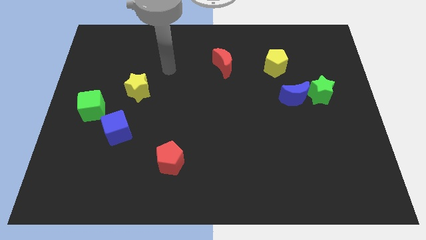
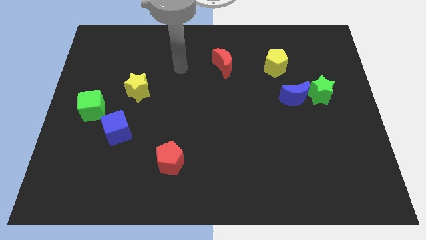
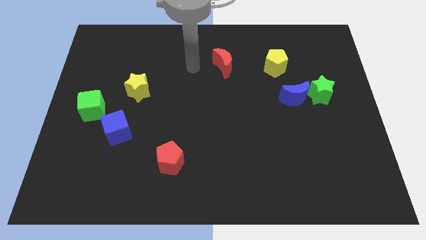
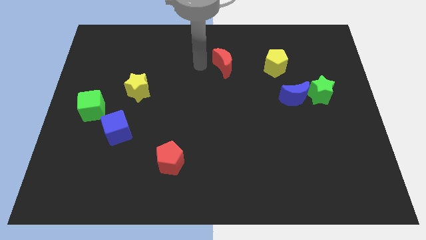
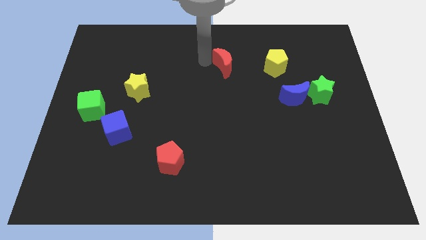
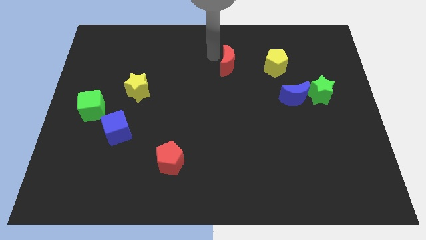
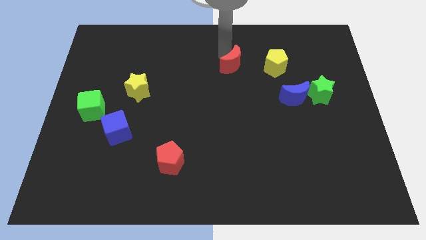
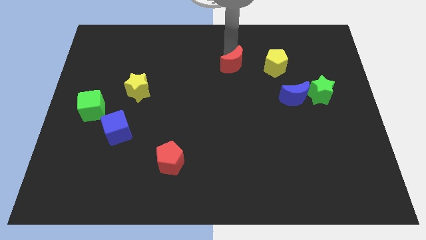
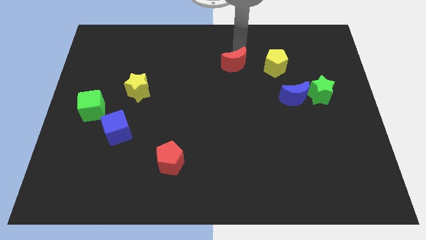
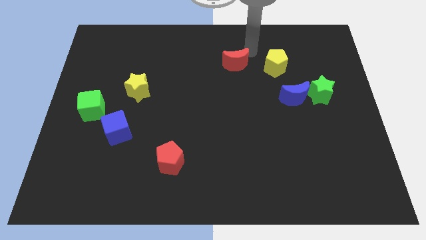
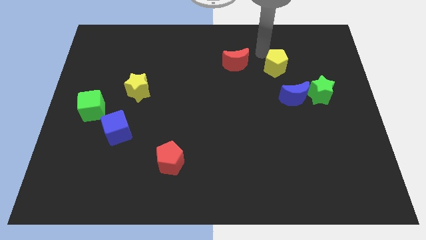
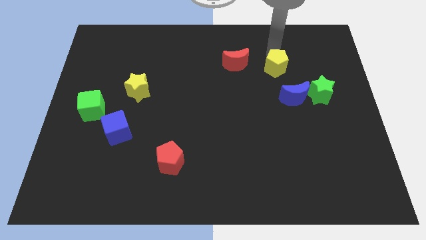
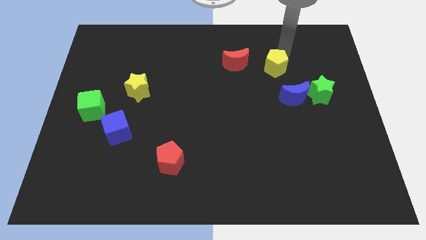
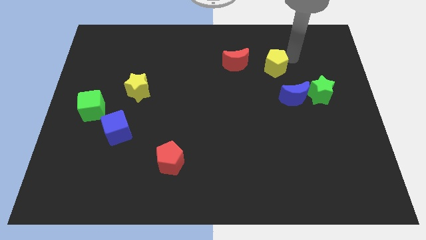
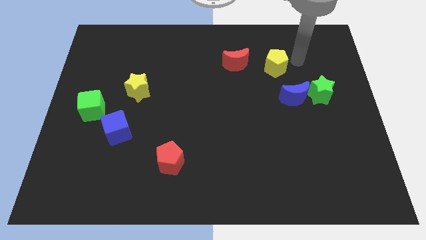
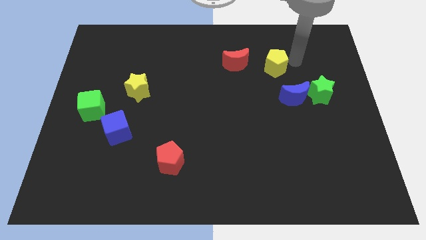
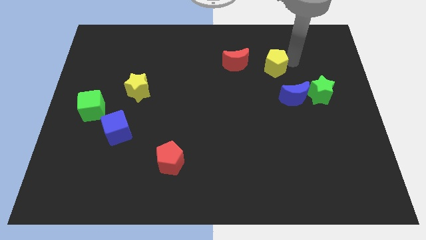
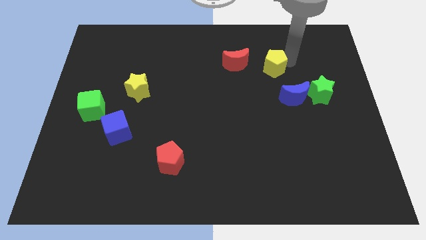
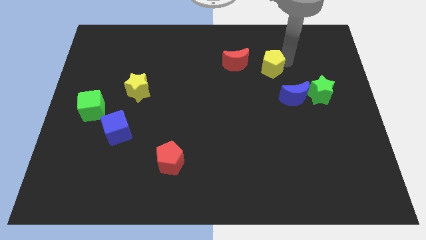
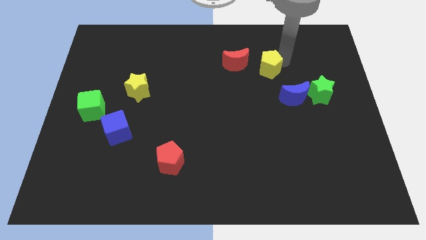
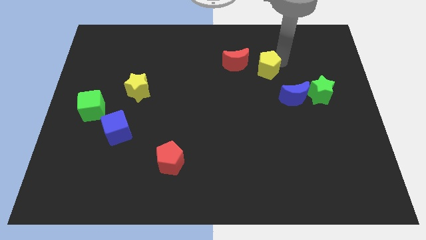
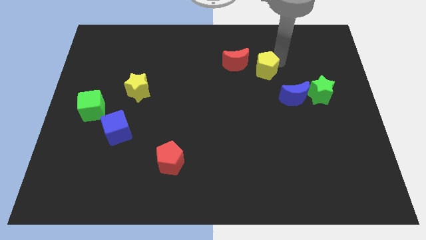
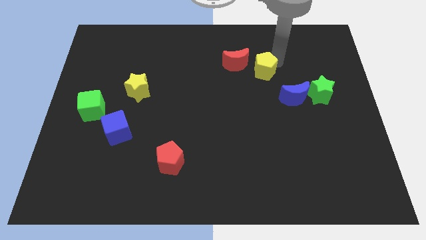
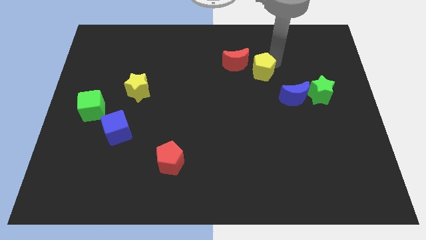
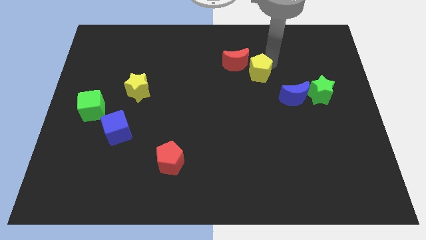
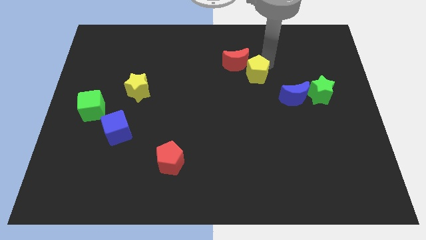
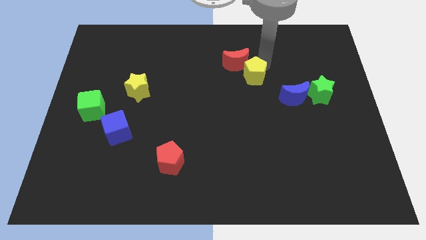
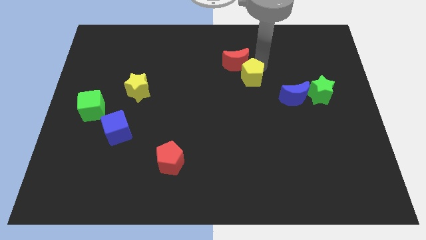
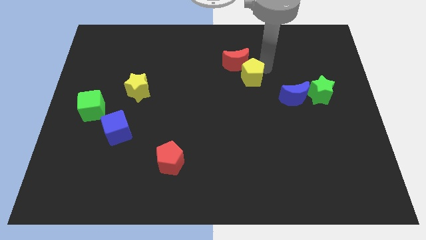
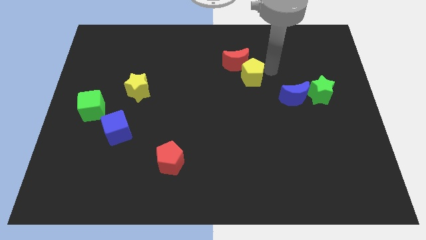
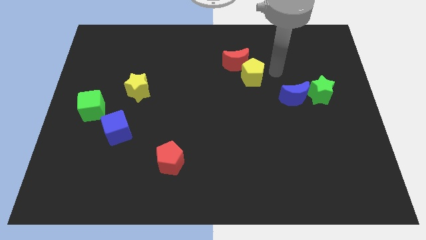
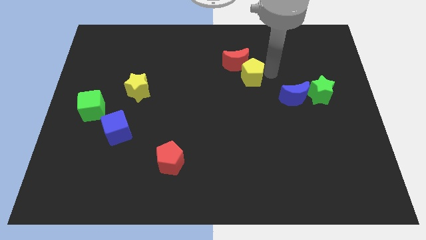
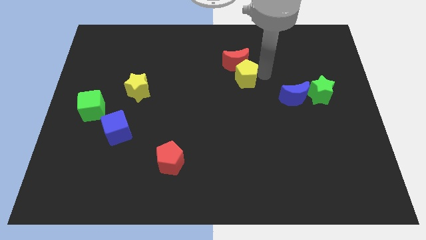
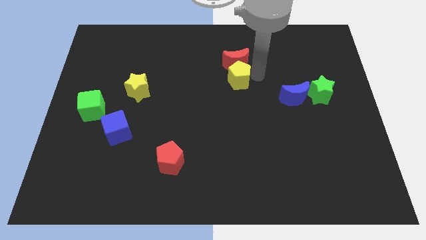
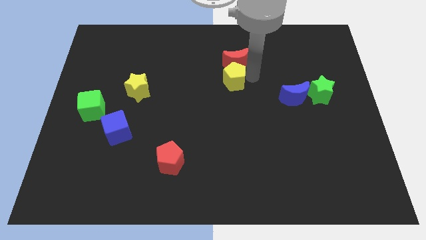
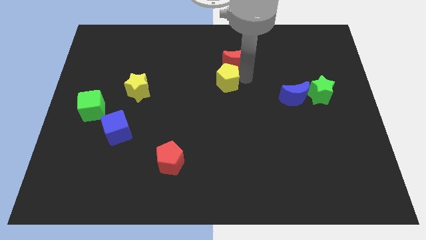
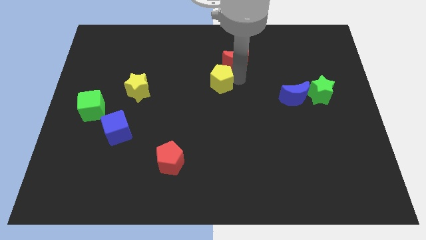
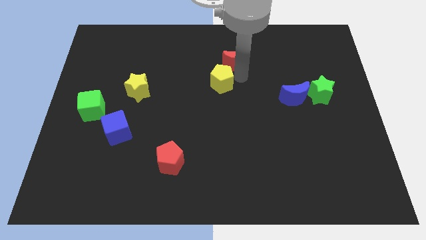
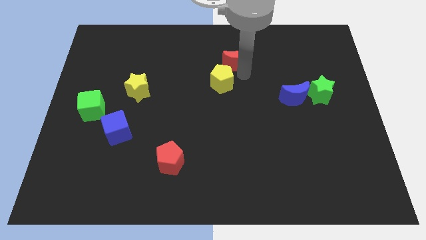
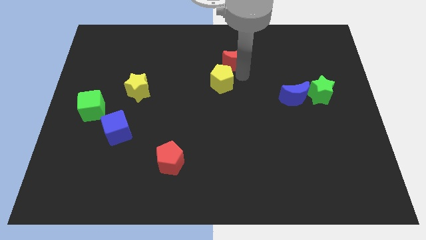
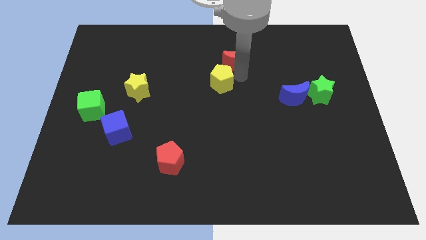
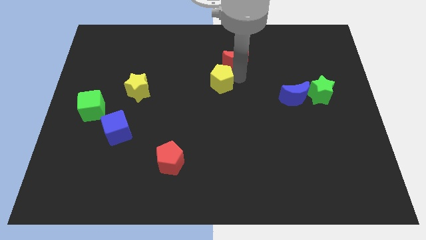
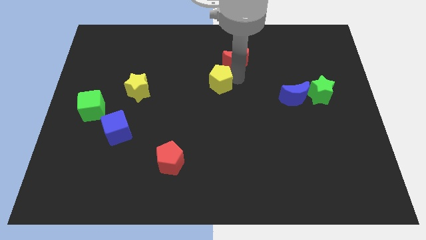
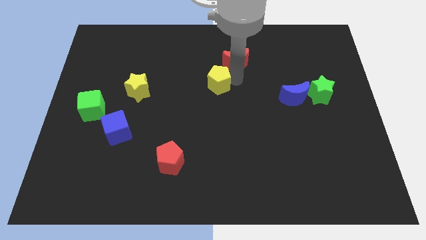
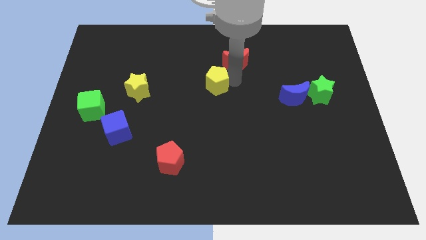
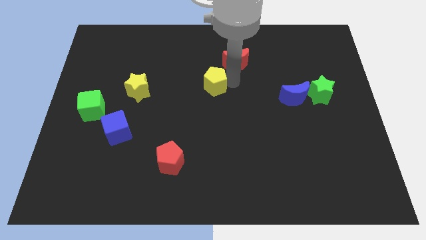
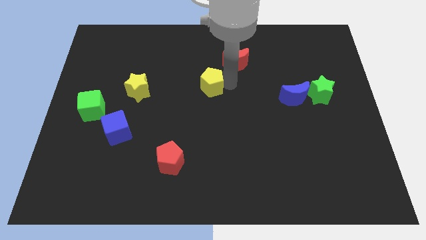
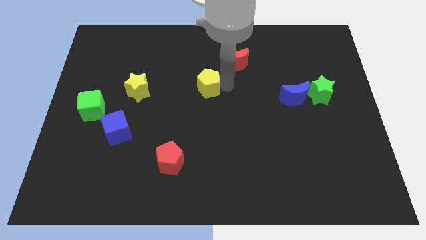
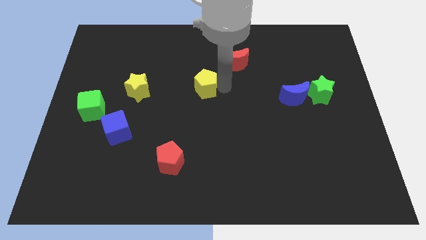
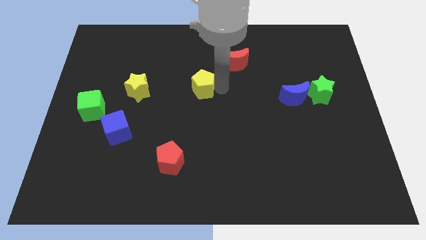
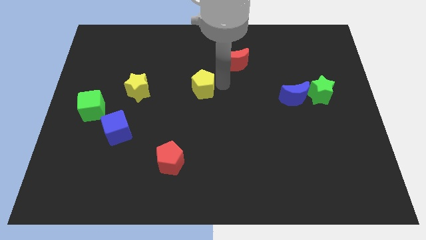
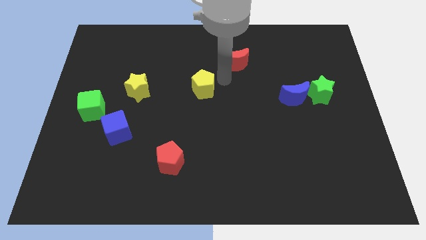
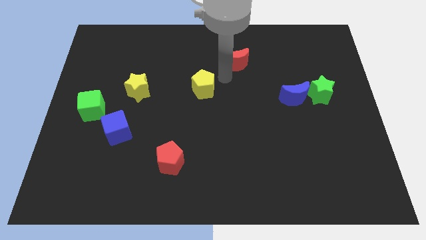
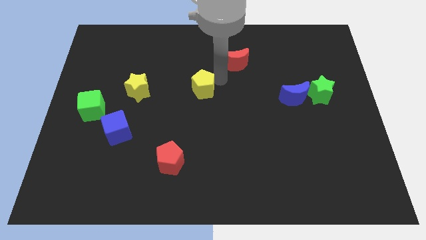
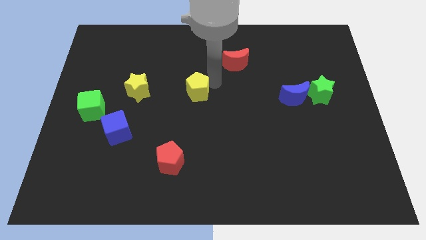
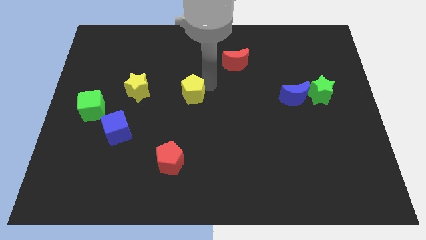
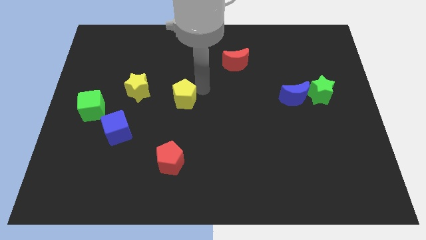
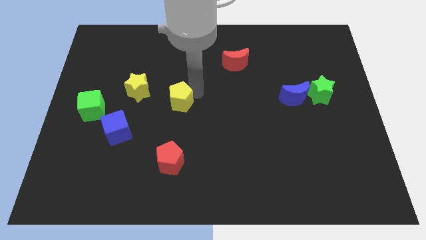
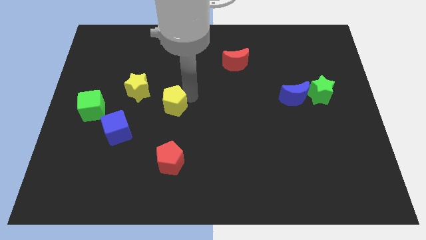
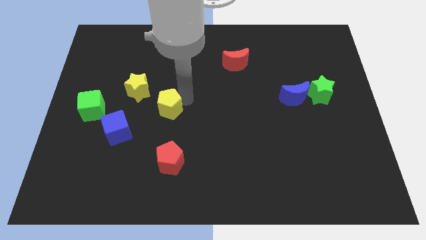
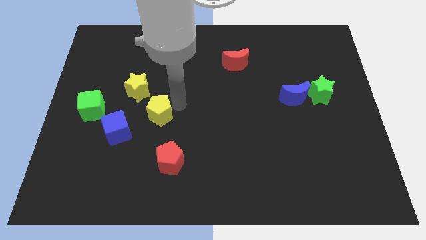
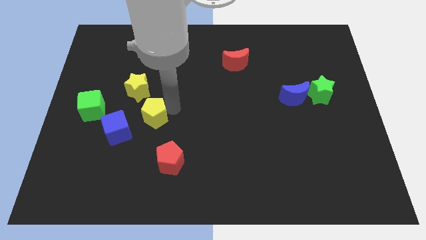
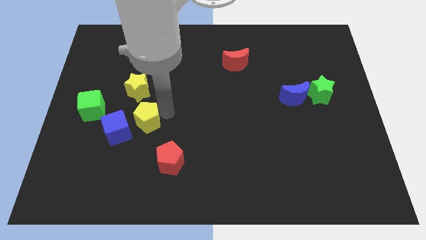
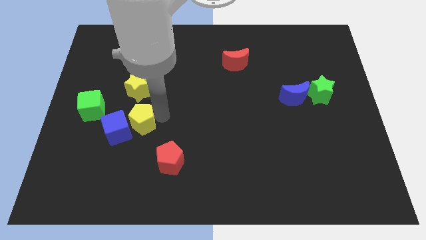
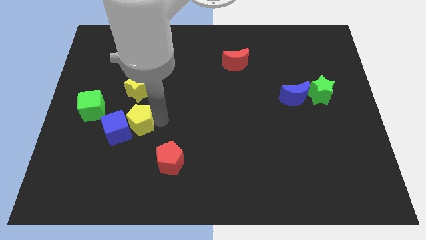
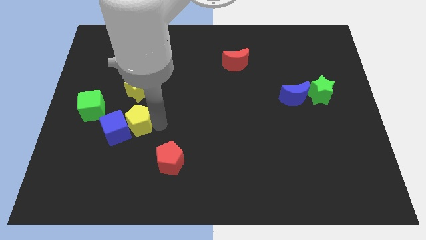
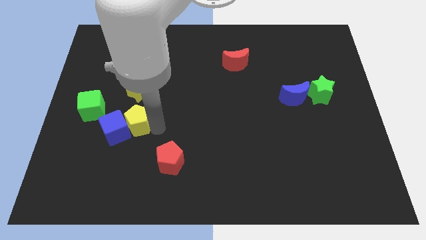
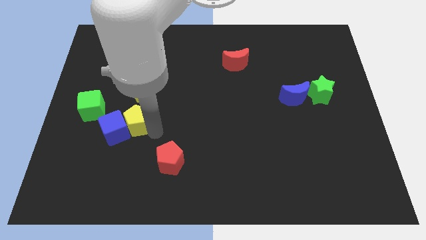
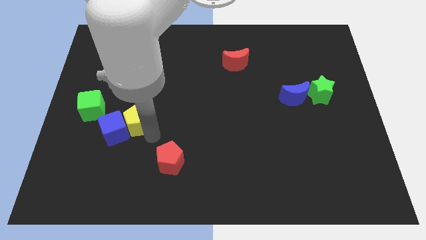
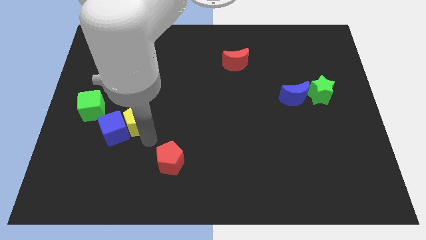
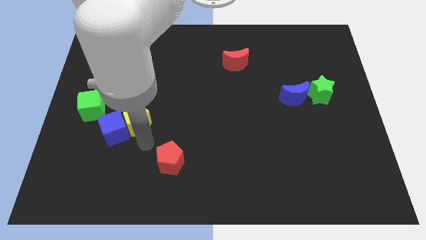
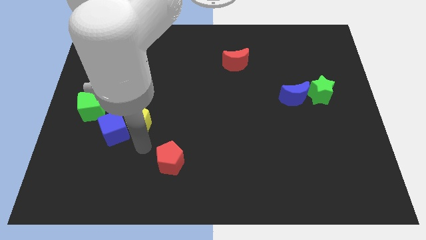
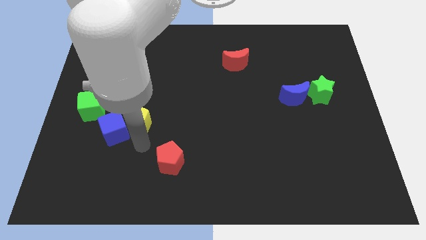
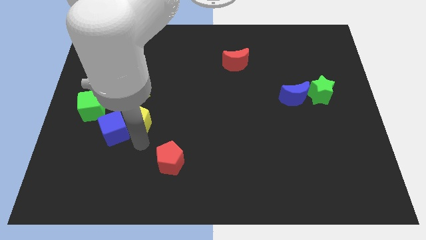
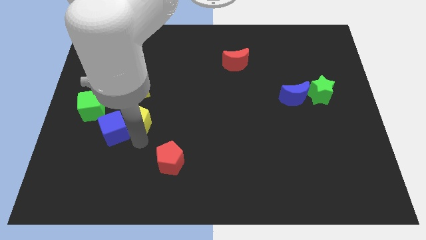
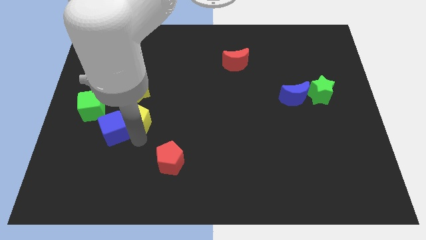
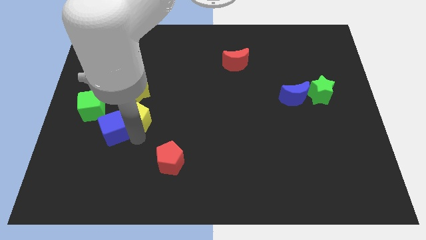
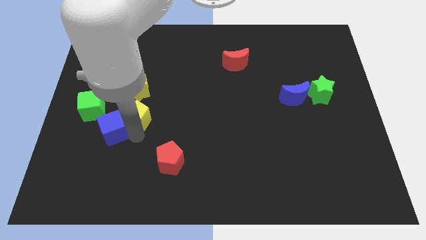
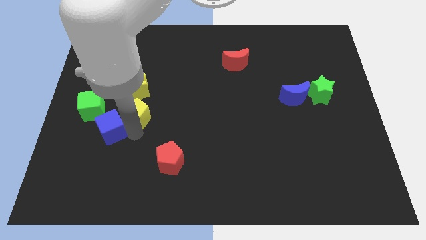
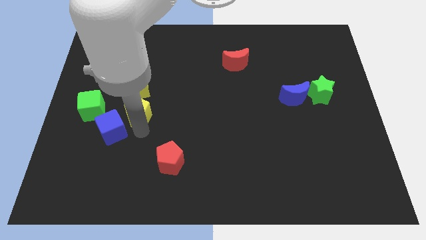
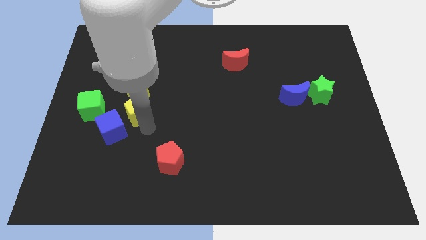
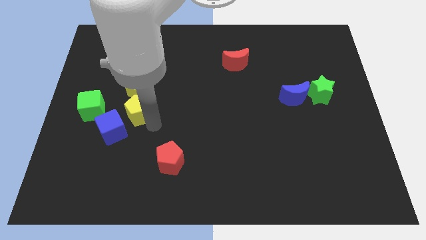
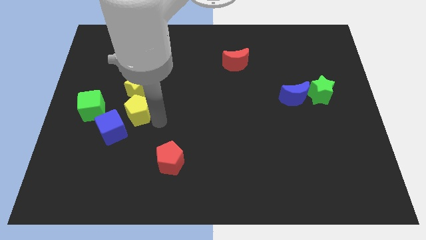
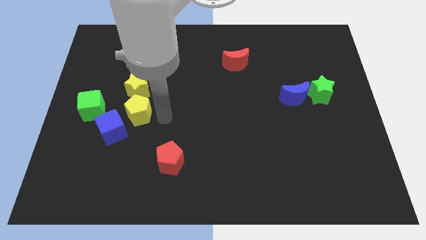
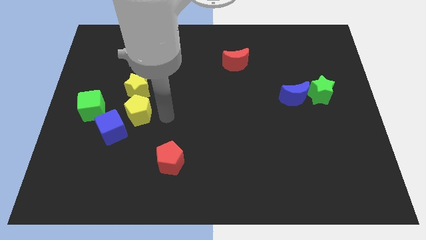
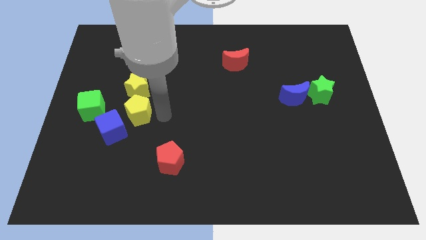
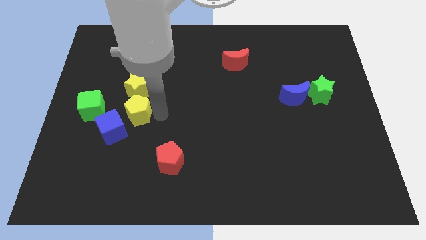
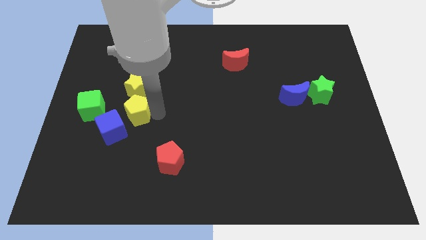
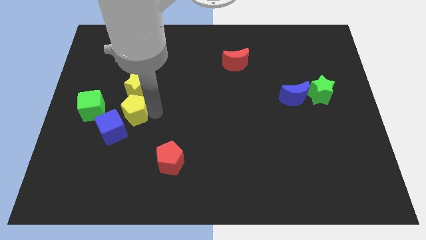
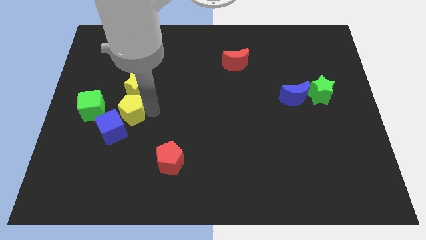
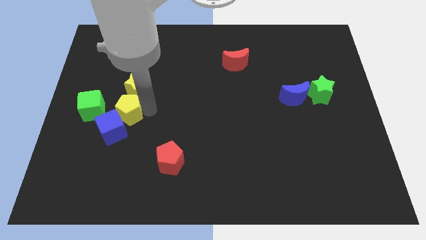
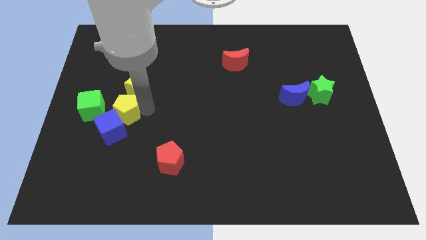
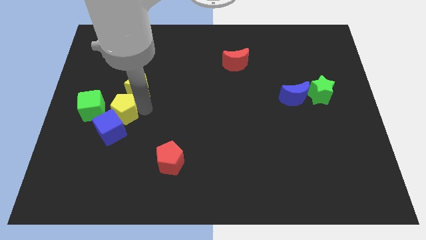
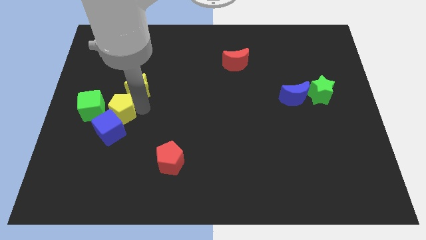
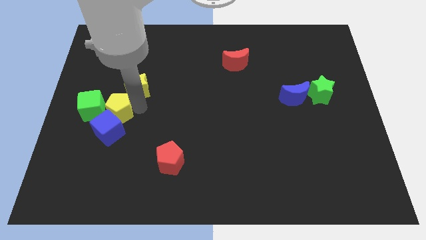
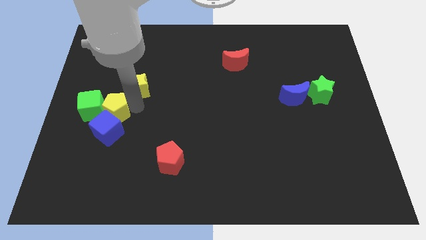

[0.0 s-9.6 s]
put the yellow pentagon next to the green cube
